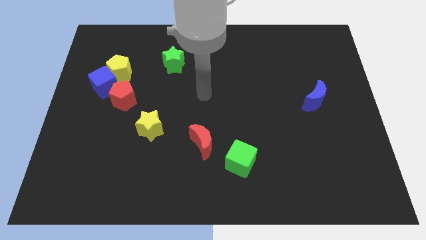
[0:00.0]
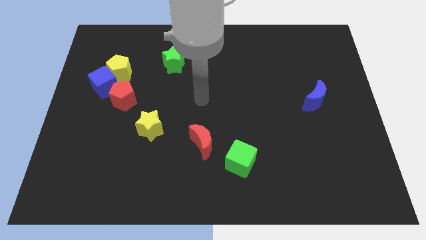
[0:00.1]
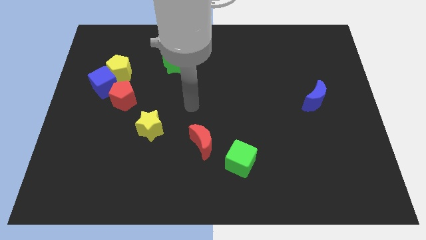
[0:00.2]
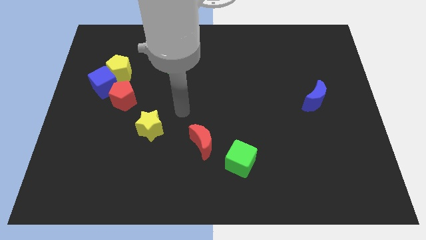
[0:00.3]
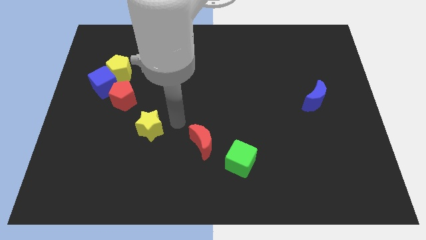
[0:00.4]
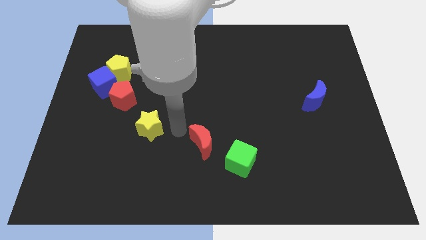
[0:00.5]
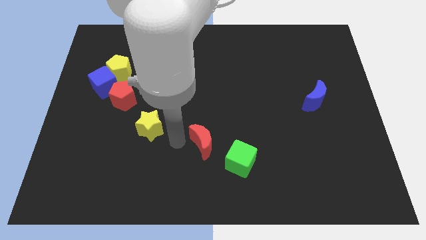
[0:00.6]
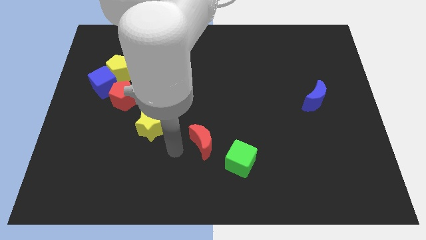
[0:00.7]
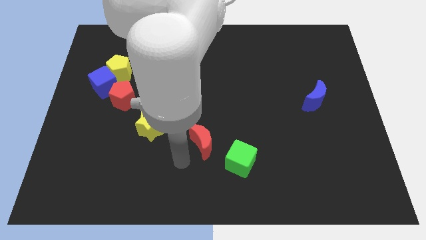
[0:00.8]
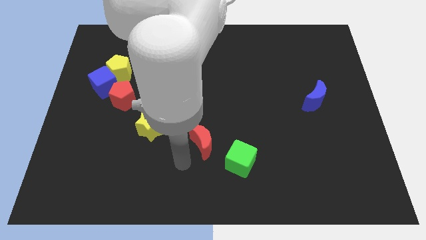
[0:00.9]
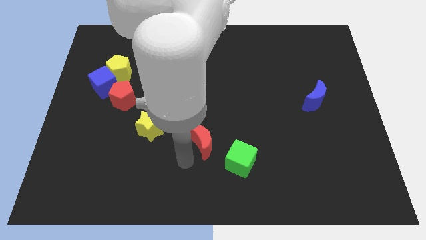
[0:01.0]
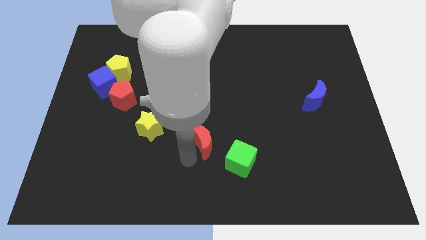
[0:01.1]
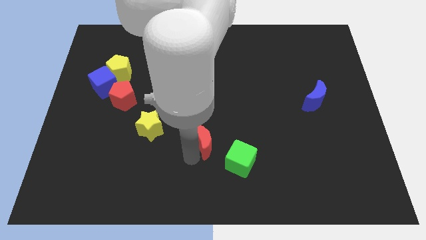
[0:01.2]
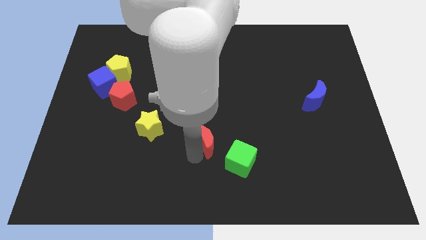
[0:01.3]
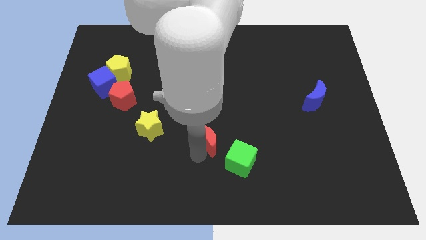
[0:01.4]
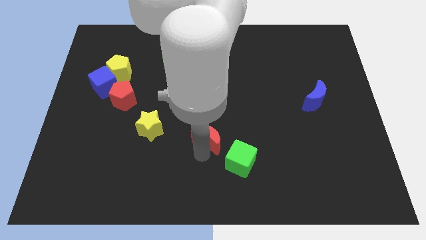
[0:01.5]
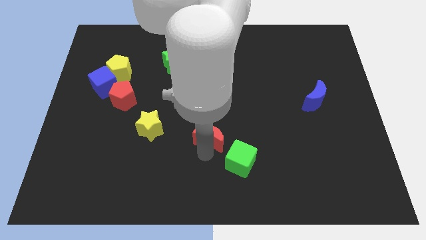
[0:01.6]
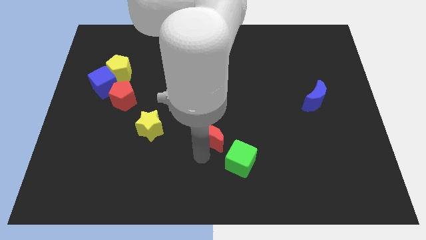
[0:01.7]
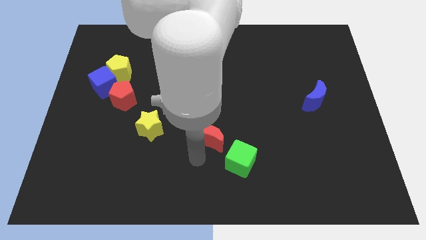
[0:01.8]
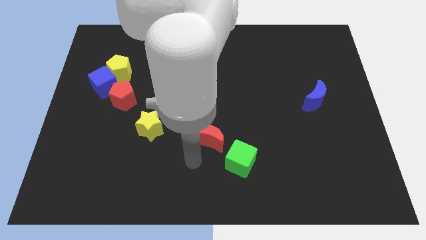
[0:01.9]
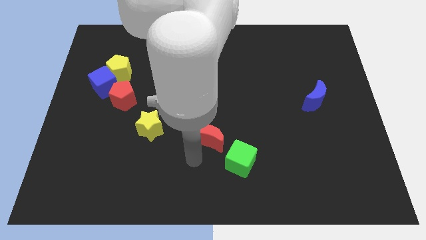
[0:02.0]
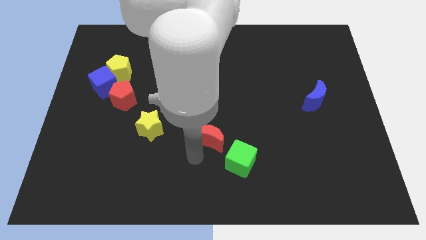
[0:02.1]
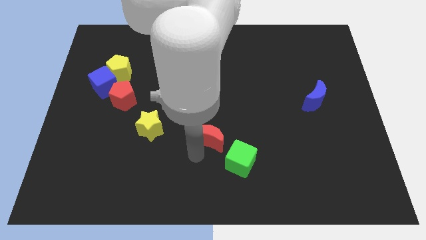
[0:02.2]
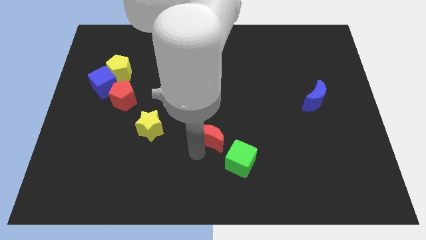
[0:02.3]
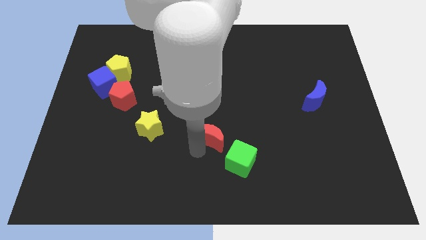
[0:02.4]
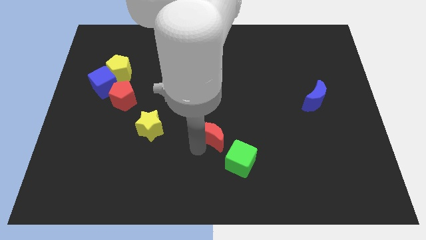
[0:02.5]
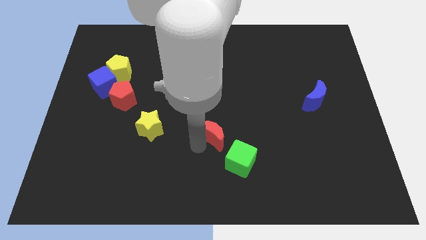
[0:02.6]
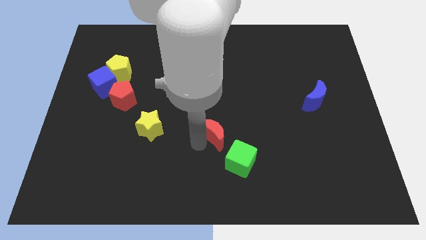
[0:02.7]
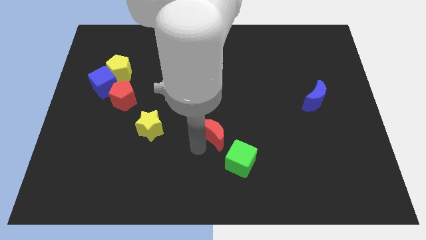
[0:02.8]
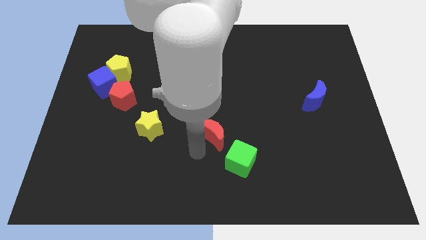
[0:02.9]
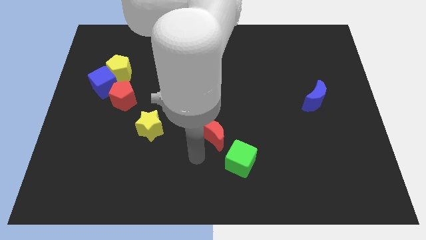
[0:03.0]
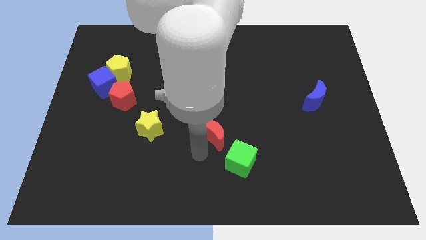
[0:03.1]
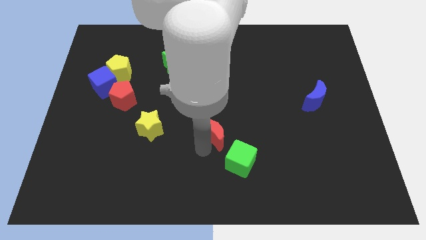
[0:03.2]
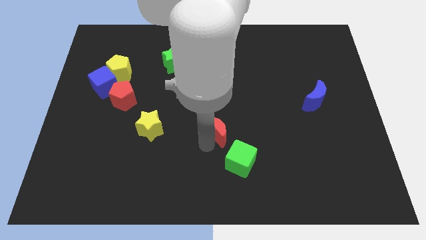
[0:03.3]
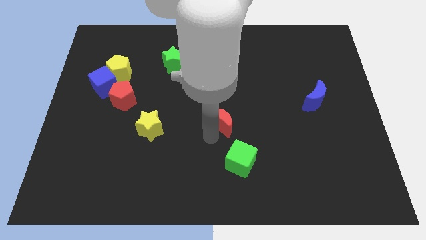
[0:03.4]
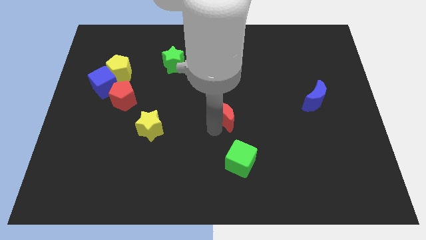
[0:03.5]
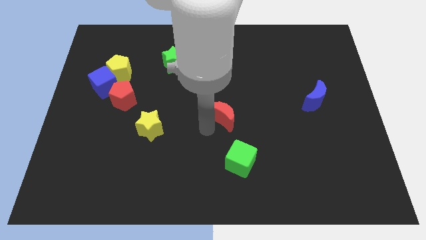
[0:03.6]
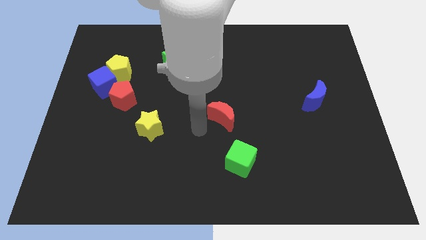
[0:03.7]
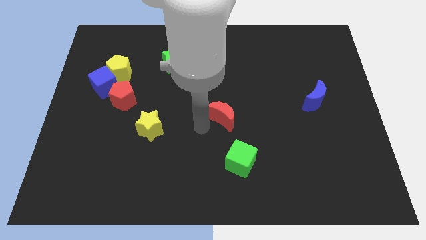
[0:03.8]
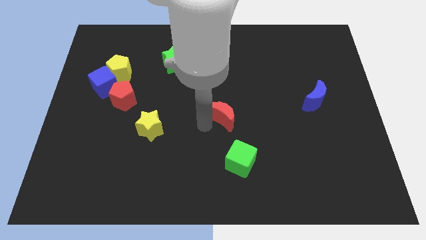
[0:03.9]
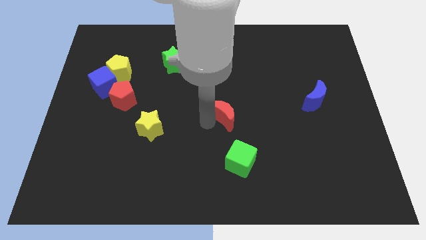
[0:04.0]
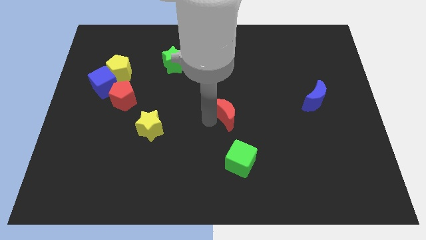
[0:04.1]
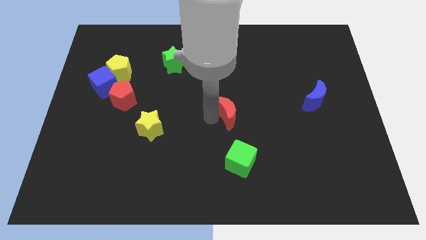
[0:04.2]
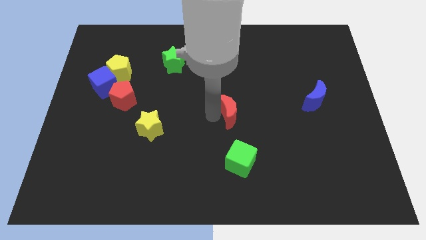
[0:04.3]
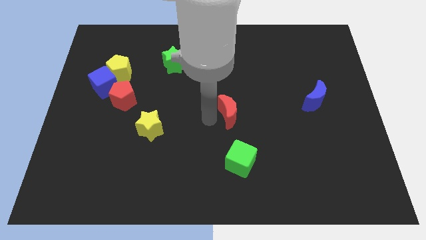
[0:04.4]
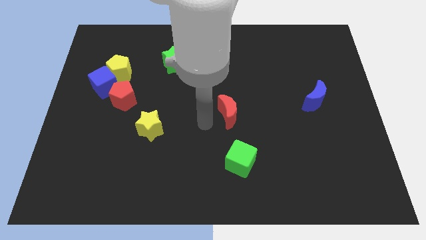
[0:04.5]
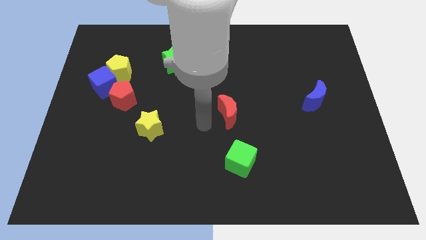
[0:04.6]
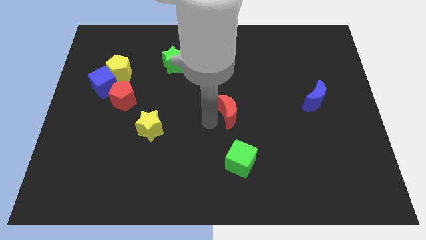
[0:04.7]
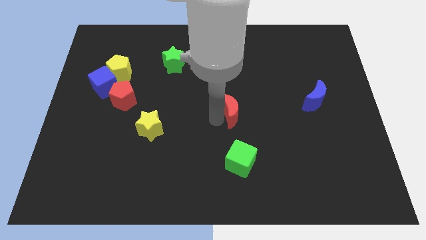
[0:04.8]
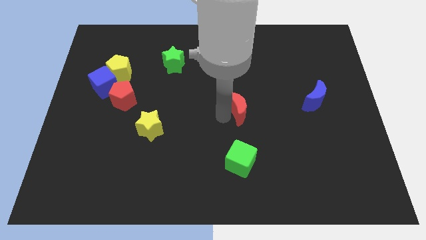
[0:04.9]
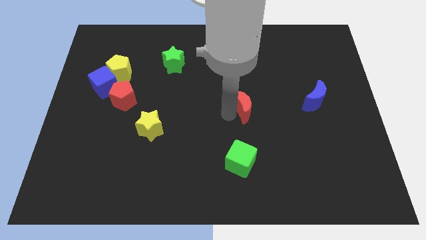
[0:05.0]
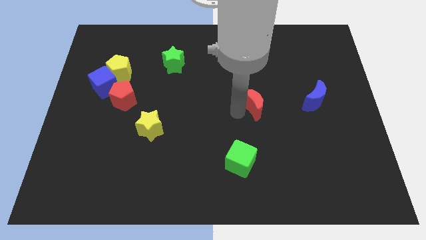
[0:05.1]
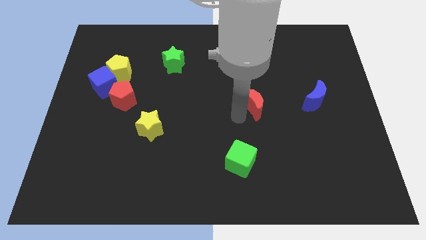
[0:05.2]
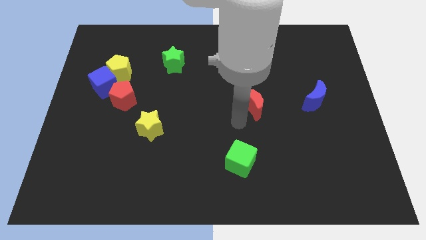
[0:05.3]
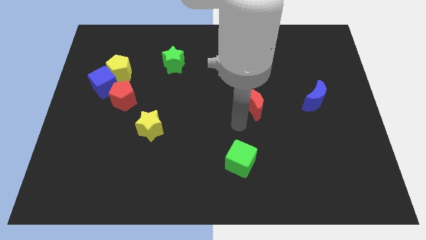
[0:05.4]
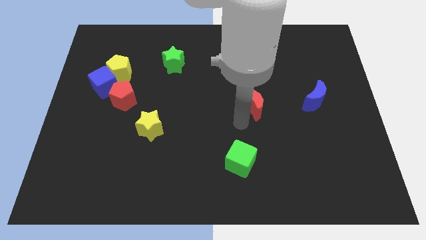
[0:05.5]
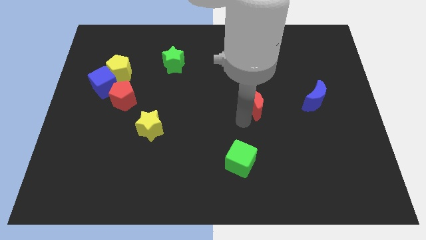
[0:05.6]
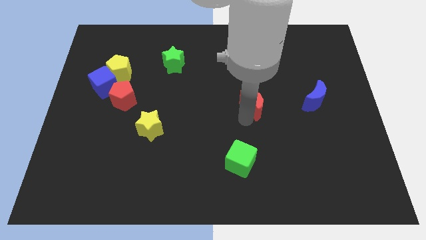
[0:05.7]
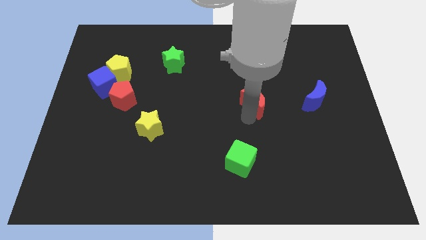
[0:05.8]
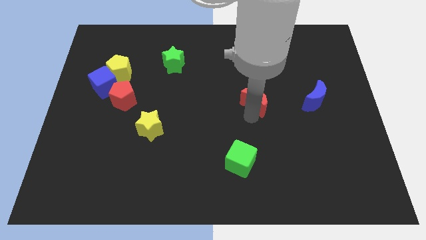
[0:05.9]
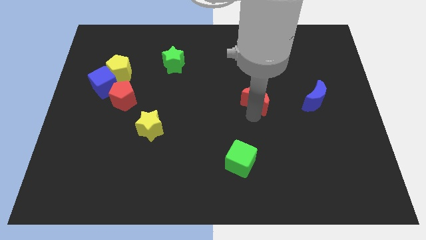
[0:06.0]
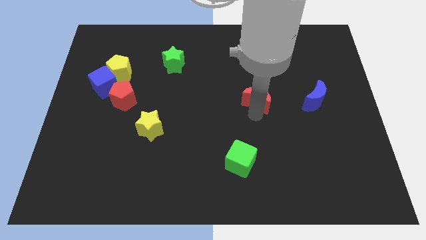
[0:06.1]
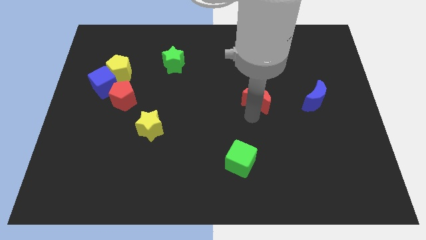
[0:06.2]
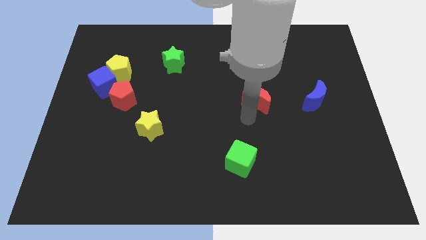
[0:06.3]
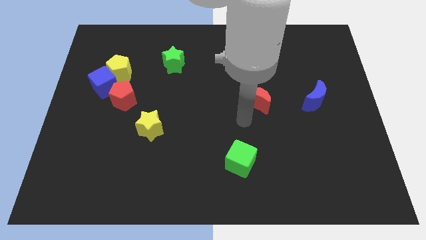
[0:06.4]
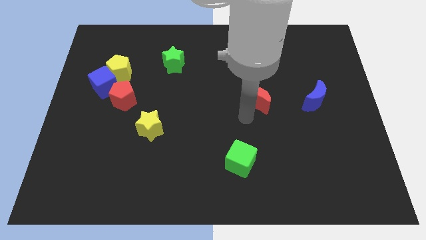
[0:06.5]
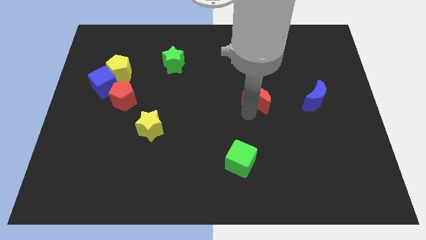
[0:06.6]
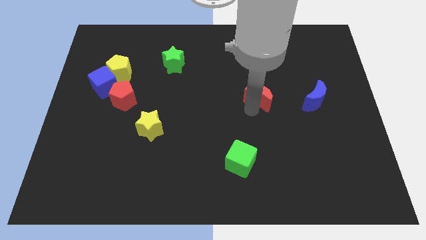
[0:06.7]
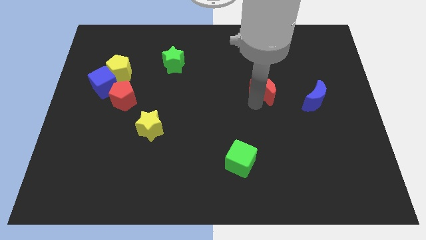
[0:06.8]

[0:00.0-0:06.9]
push the red moon upwards and then right

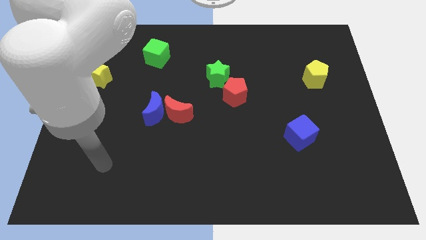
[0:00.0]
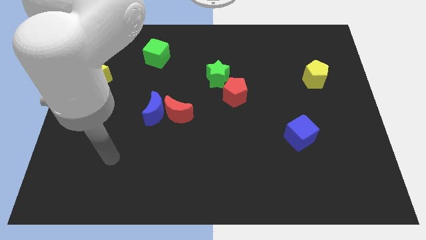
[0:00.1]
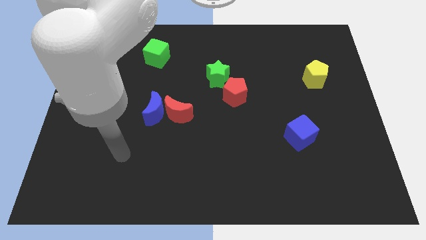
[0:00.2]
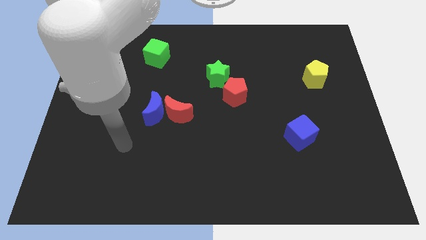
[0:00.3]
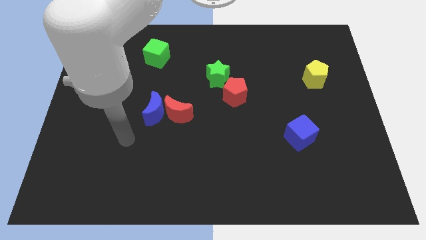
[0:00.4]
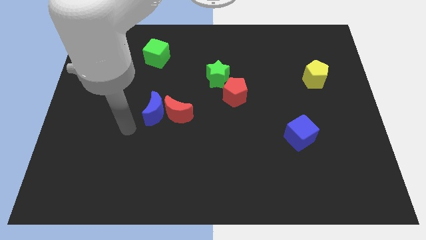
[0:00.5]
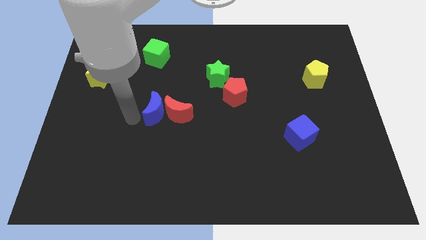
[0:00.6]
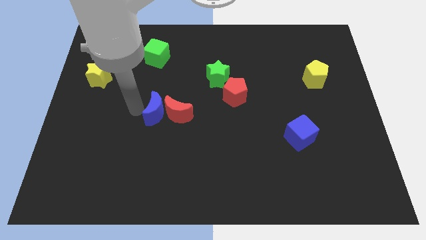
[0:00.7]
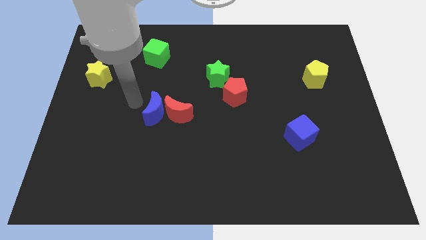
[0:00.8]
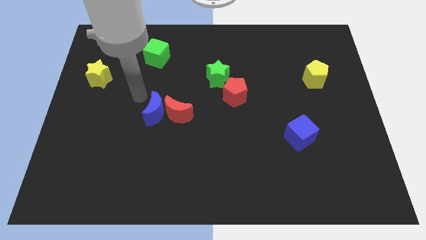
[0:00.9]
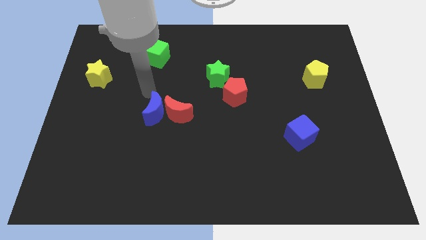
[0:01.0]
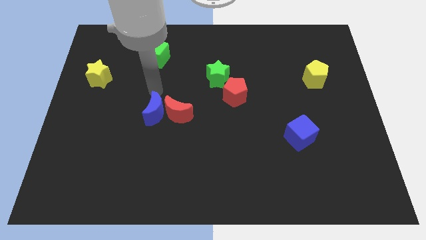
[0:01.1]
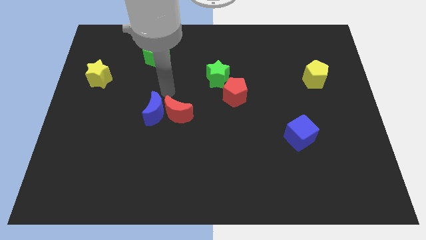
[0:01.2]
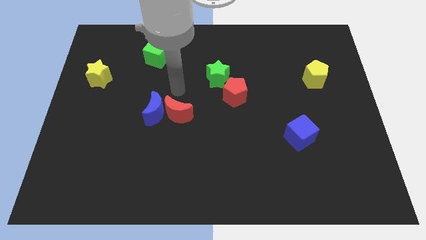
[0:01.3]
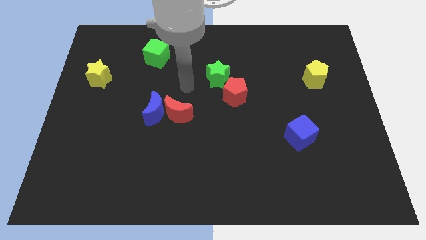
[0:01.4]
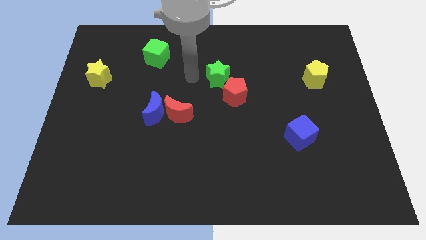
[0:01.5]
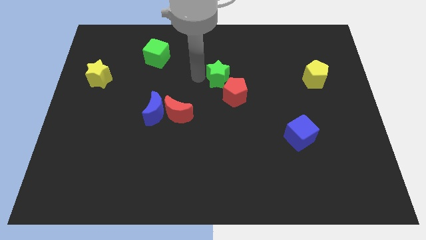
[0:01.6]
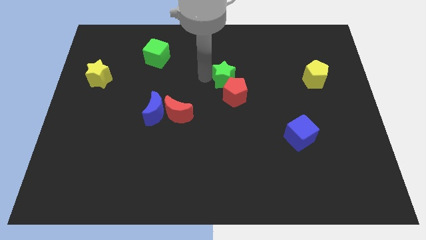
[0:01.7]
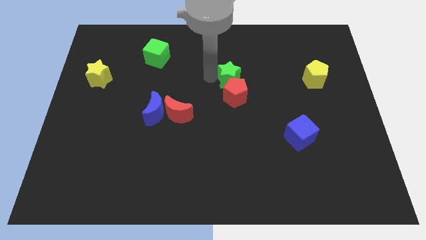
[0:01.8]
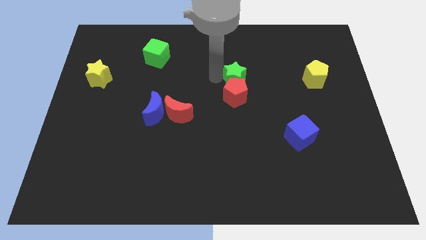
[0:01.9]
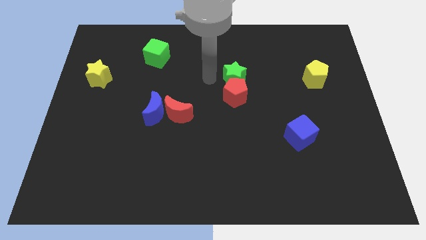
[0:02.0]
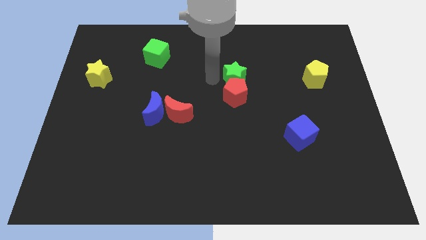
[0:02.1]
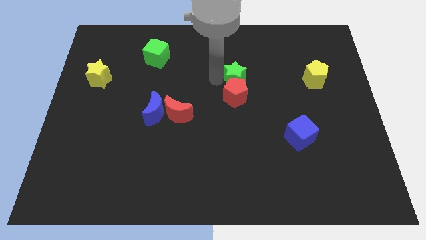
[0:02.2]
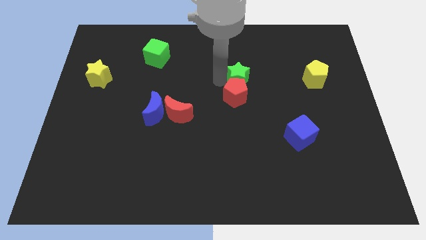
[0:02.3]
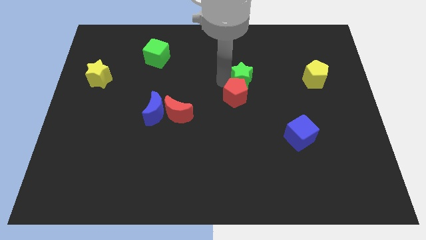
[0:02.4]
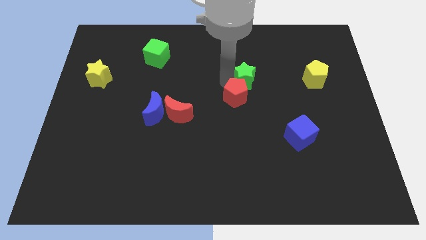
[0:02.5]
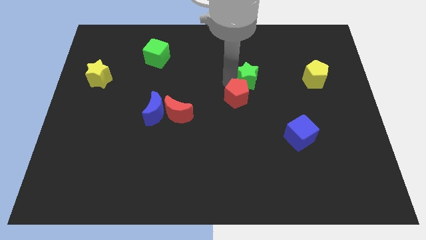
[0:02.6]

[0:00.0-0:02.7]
slightly push the green star to the right
